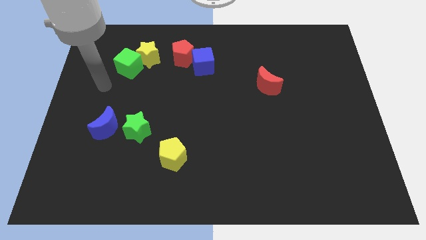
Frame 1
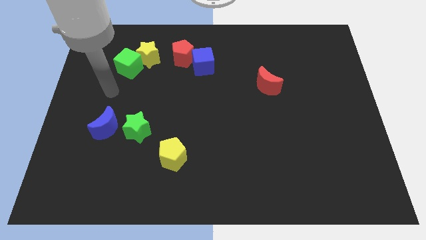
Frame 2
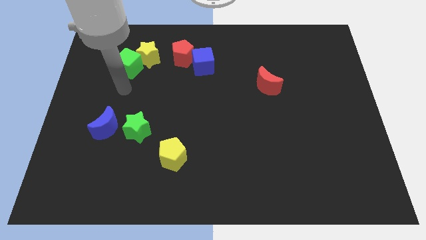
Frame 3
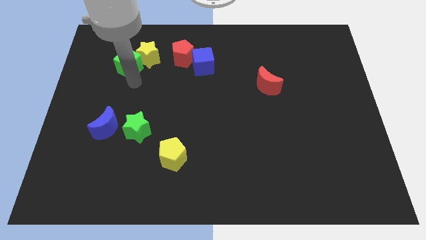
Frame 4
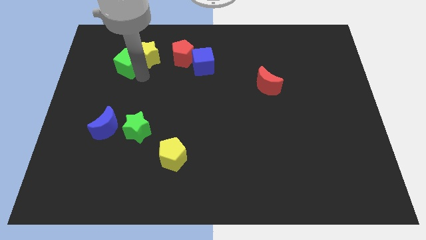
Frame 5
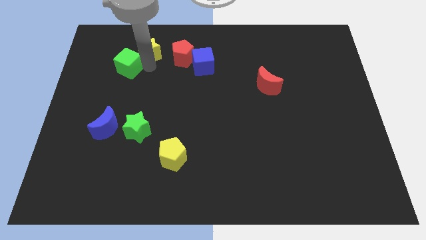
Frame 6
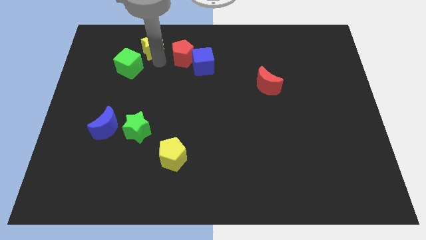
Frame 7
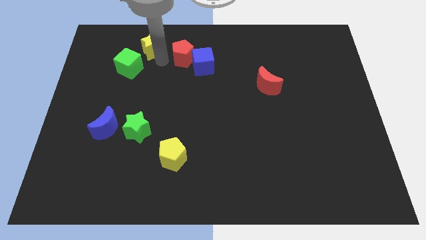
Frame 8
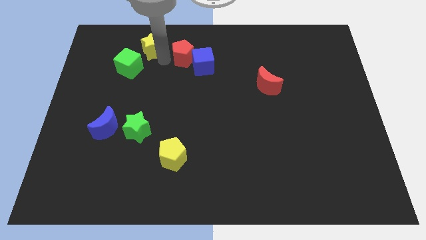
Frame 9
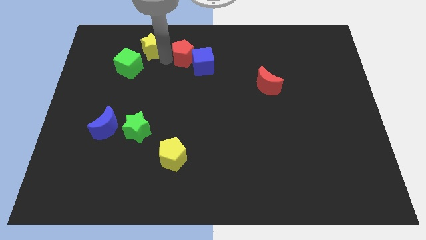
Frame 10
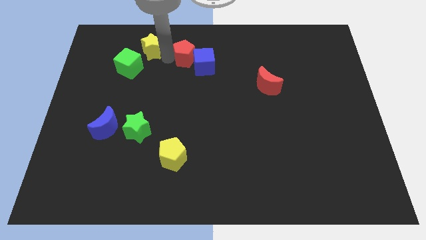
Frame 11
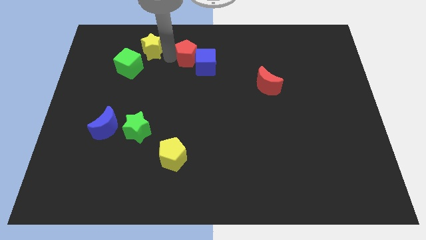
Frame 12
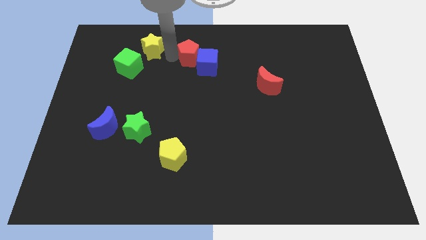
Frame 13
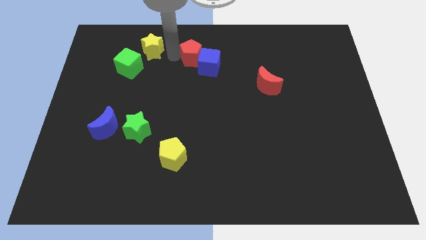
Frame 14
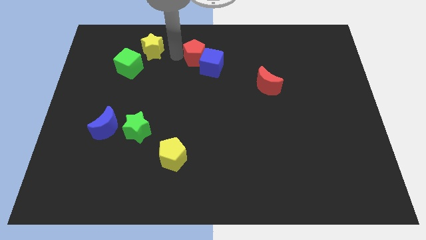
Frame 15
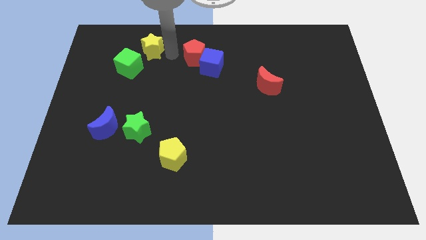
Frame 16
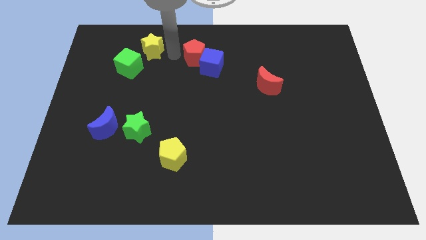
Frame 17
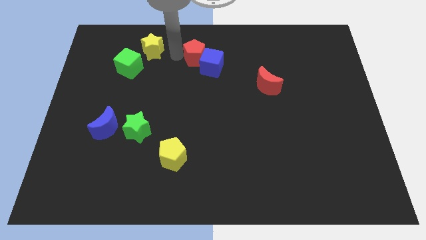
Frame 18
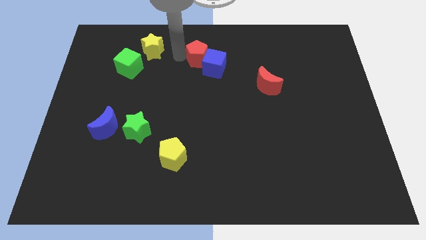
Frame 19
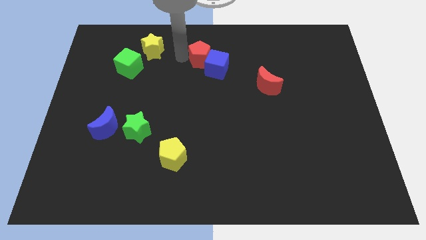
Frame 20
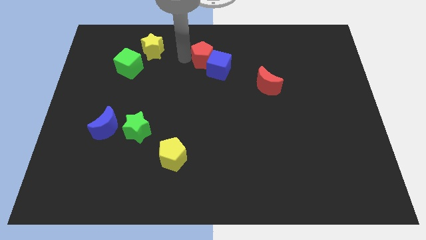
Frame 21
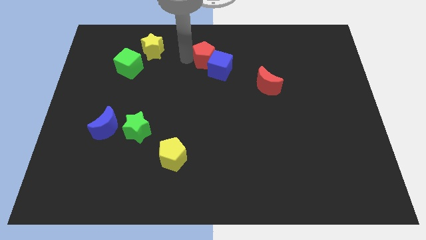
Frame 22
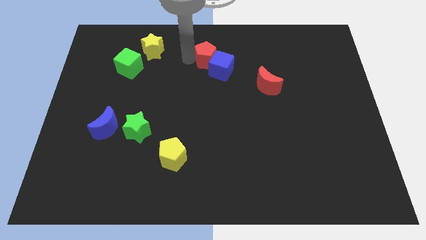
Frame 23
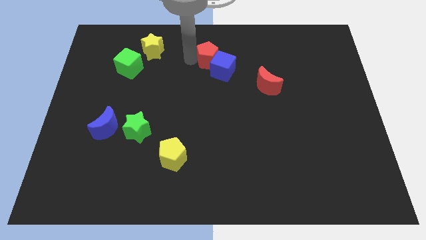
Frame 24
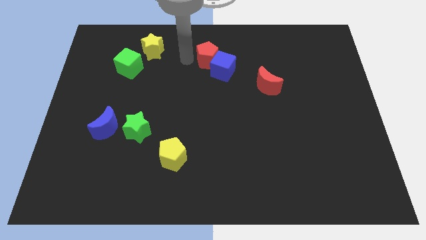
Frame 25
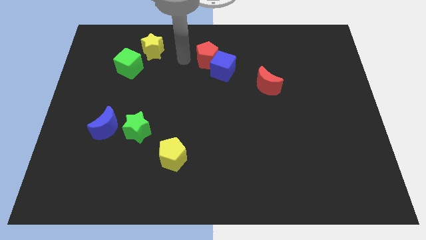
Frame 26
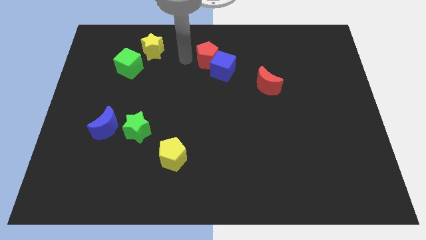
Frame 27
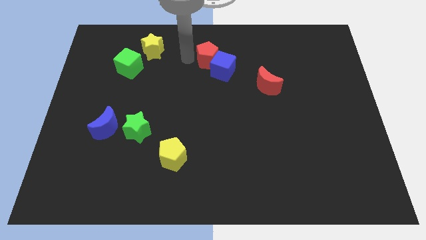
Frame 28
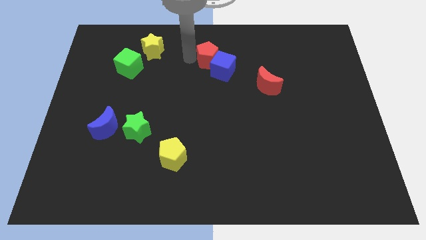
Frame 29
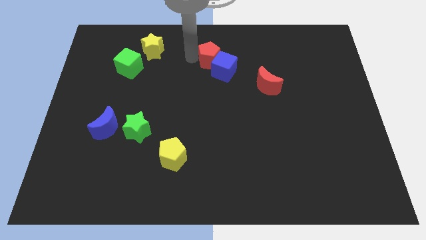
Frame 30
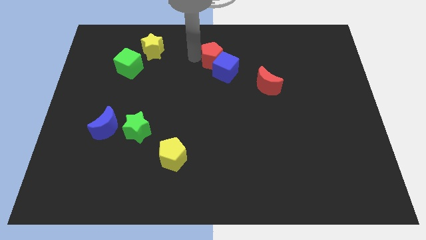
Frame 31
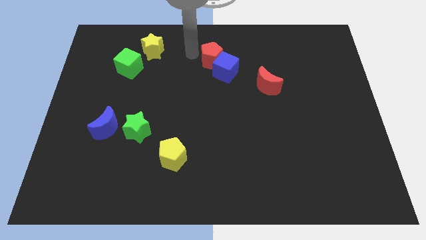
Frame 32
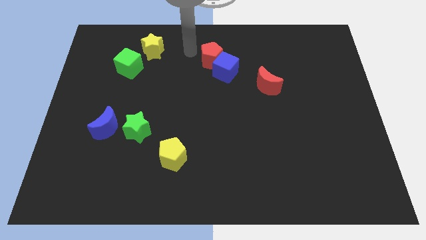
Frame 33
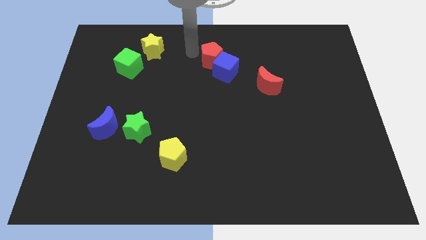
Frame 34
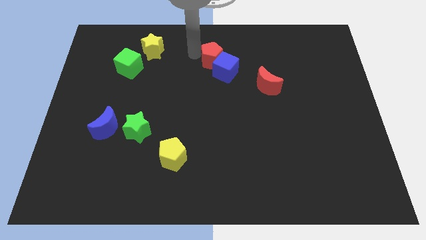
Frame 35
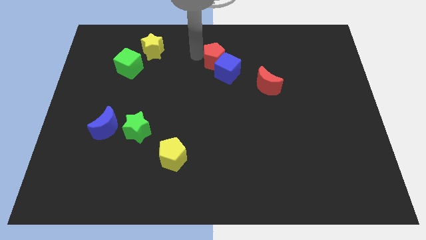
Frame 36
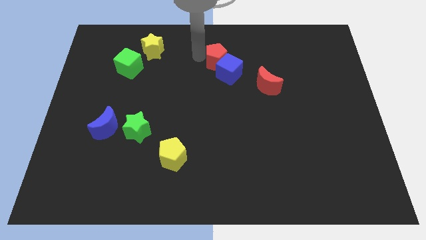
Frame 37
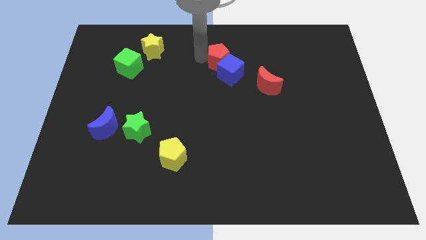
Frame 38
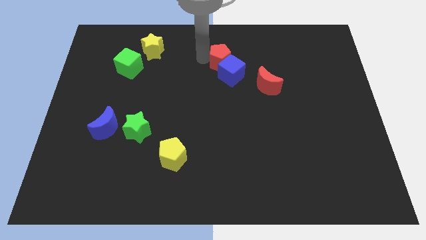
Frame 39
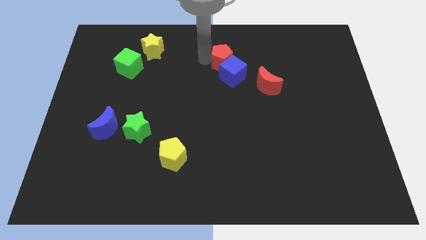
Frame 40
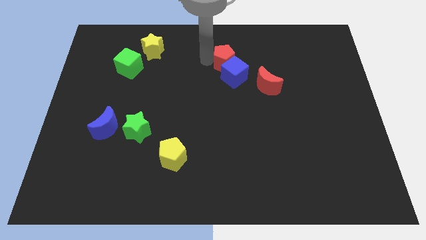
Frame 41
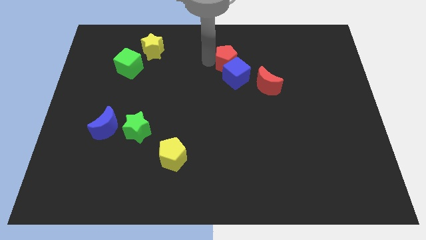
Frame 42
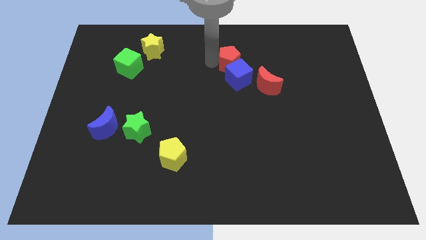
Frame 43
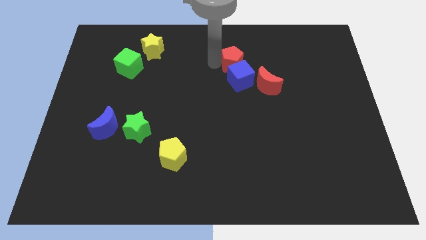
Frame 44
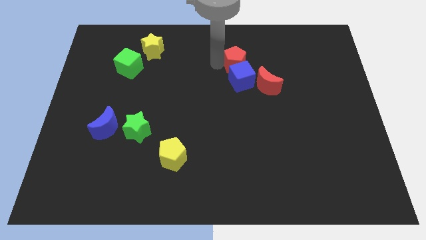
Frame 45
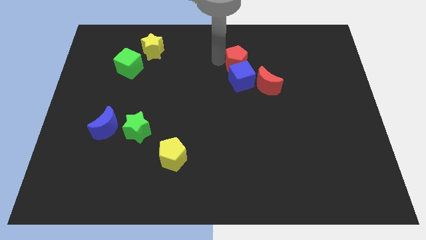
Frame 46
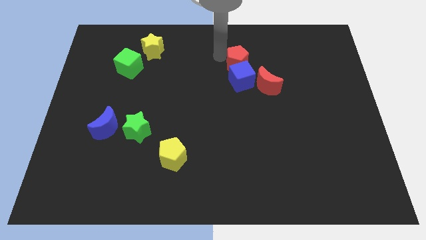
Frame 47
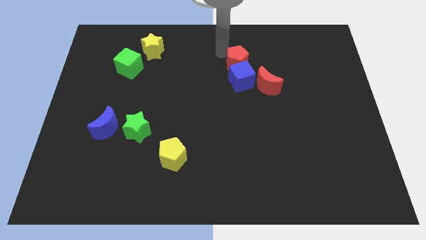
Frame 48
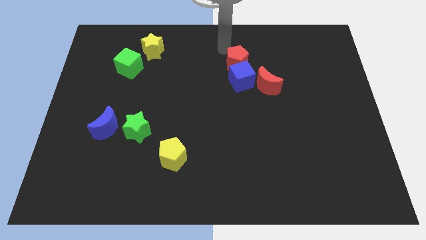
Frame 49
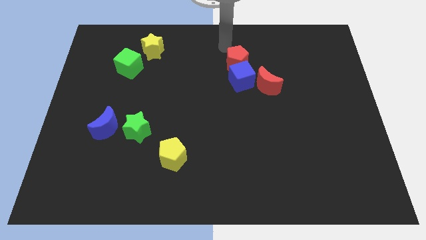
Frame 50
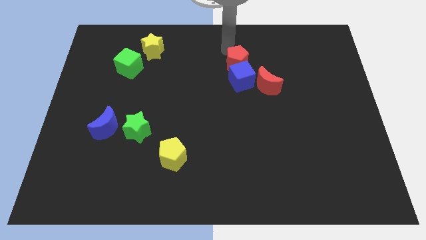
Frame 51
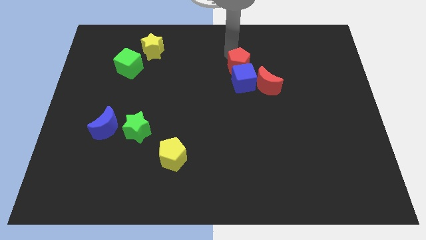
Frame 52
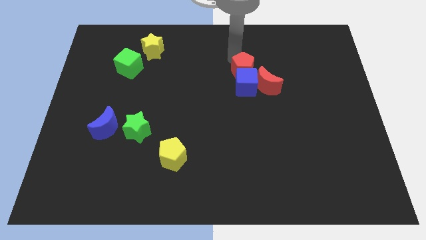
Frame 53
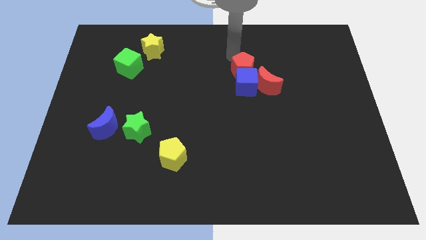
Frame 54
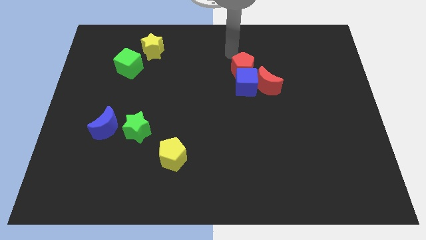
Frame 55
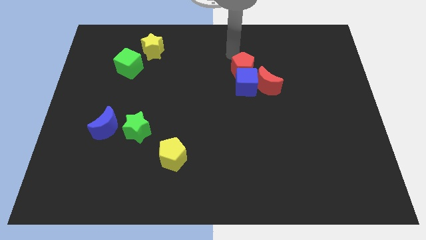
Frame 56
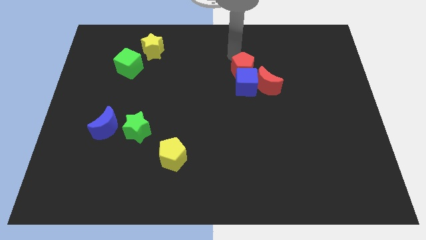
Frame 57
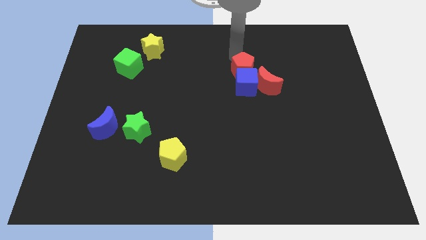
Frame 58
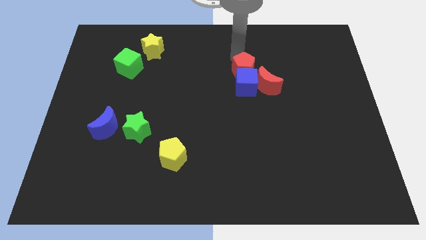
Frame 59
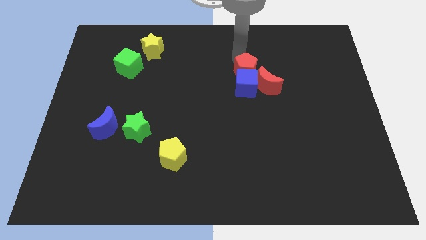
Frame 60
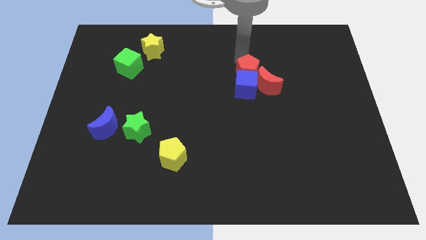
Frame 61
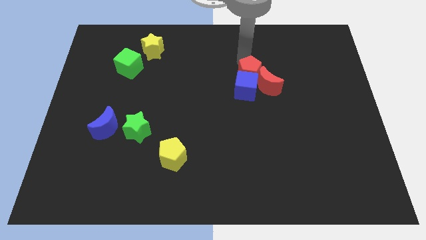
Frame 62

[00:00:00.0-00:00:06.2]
slide the red pentagon close to the red moon

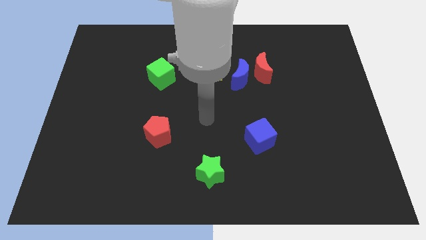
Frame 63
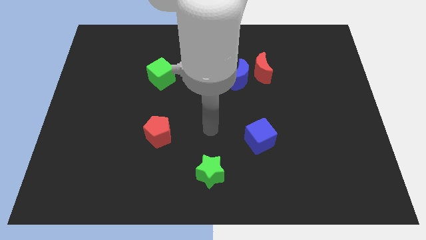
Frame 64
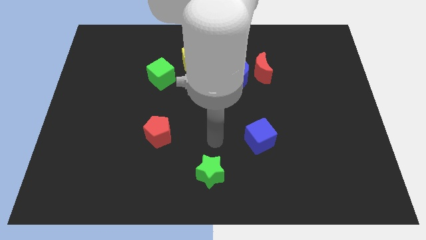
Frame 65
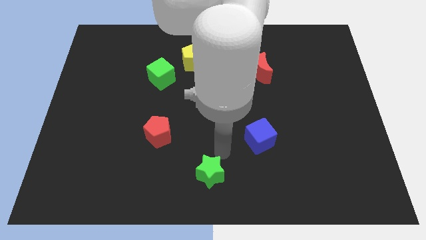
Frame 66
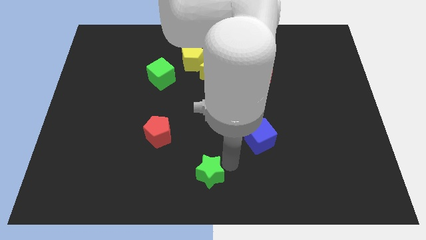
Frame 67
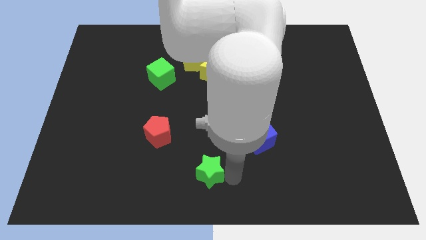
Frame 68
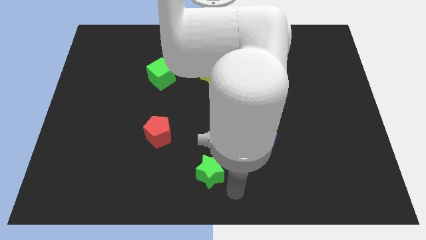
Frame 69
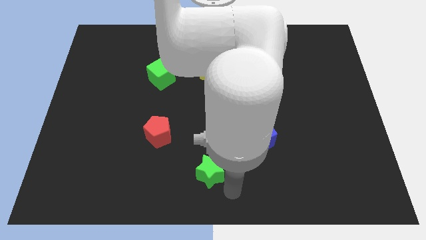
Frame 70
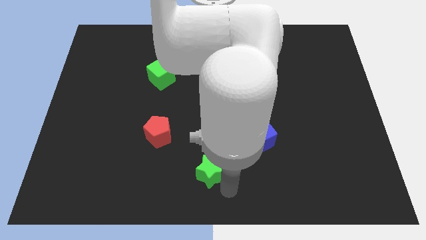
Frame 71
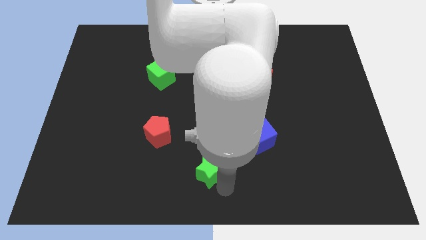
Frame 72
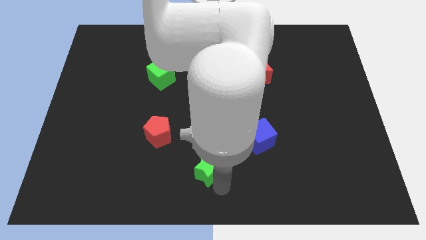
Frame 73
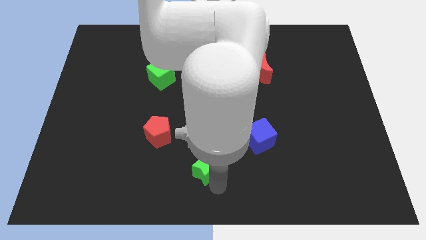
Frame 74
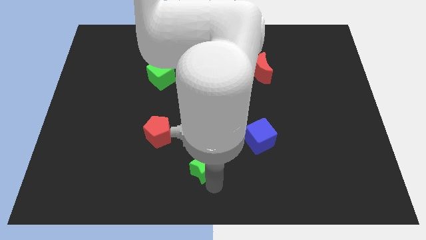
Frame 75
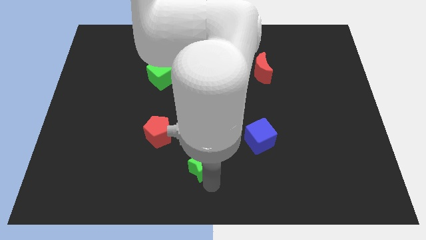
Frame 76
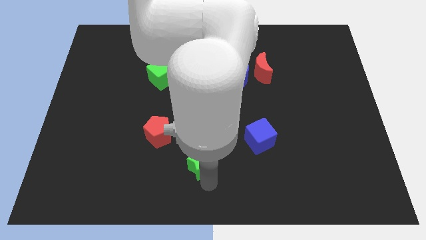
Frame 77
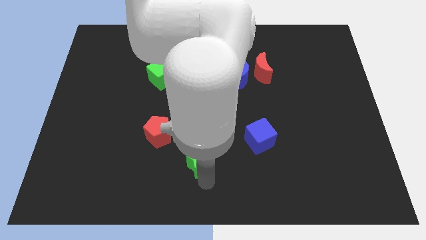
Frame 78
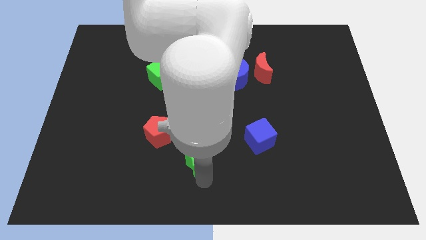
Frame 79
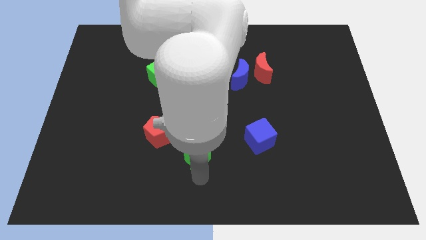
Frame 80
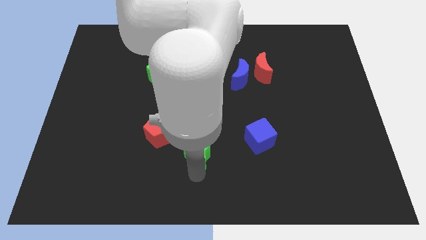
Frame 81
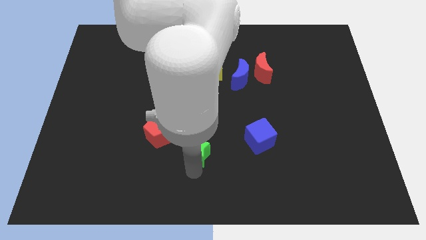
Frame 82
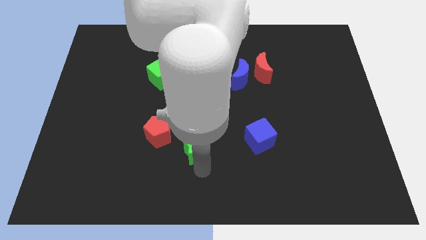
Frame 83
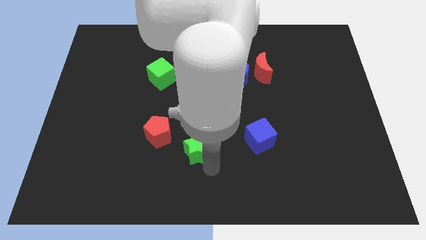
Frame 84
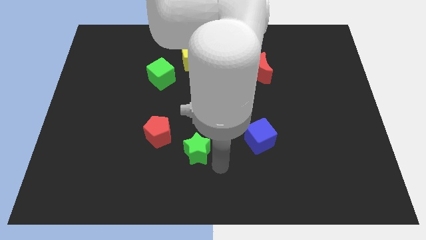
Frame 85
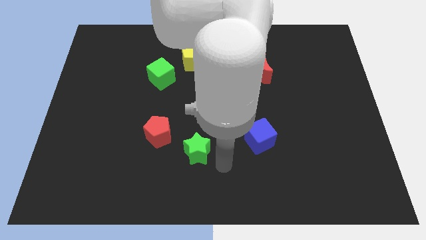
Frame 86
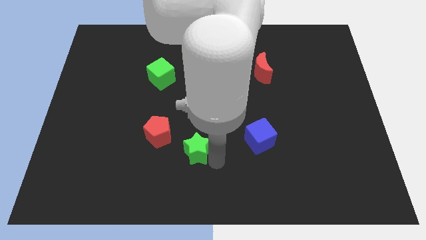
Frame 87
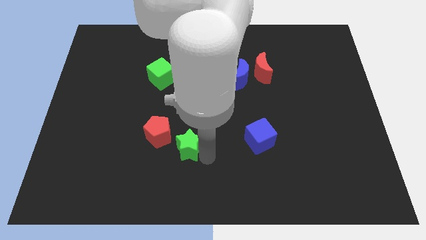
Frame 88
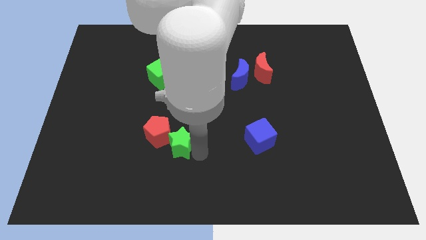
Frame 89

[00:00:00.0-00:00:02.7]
put the green star to the red pentagon
